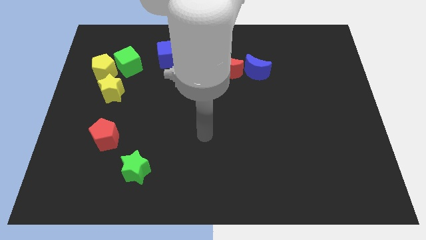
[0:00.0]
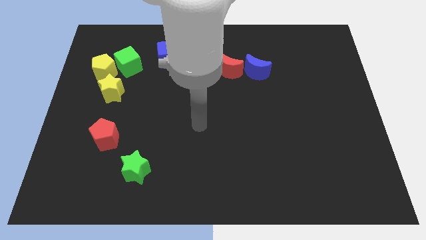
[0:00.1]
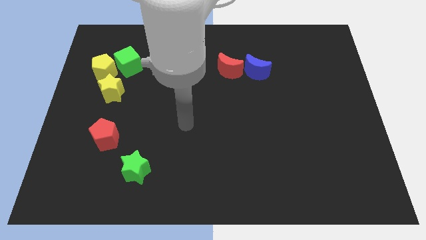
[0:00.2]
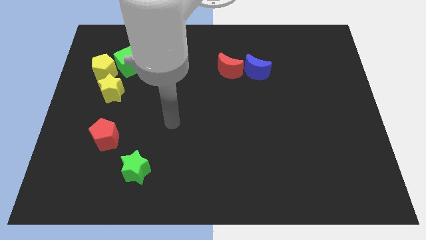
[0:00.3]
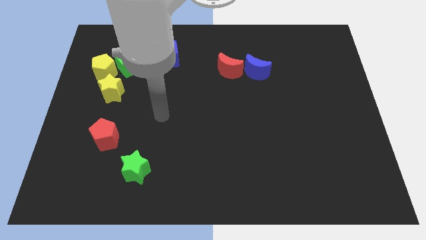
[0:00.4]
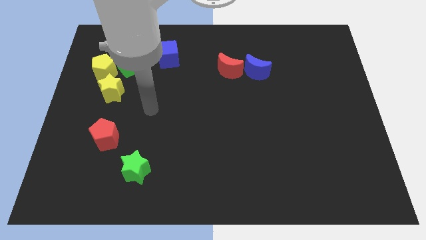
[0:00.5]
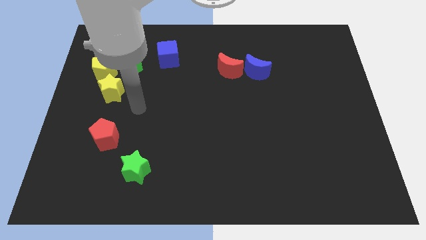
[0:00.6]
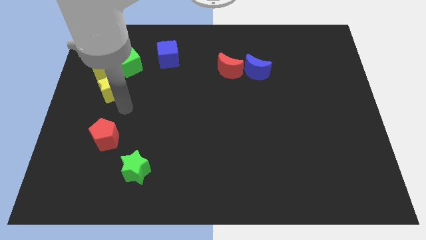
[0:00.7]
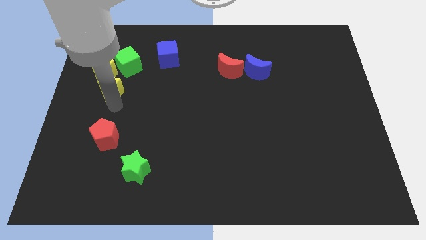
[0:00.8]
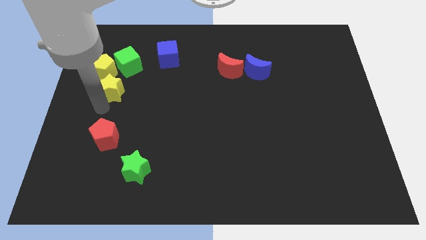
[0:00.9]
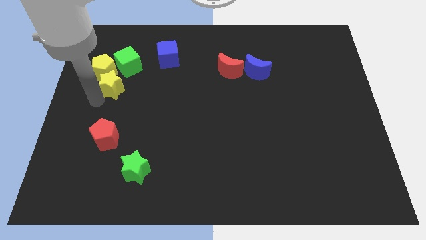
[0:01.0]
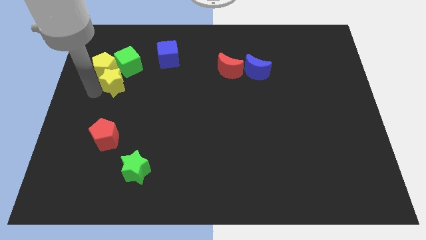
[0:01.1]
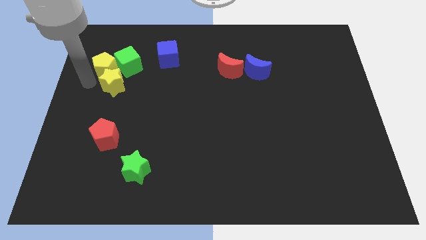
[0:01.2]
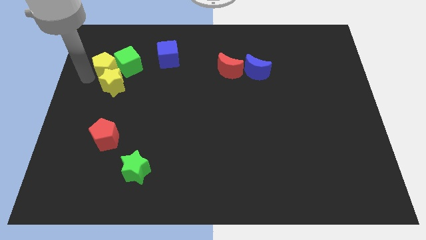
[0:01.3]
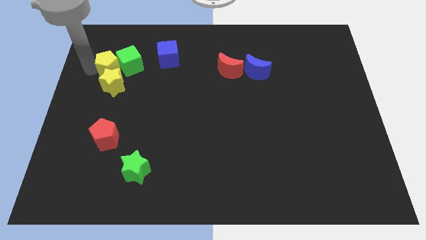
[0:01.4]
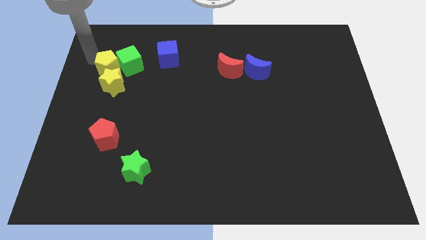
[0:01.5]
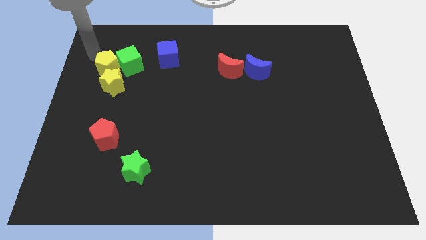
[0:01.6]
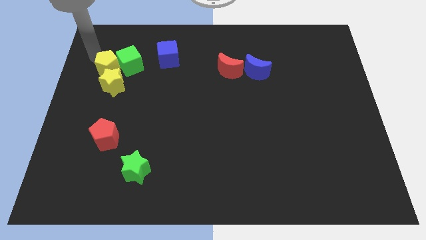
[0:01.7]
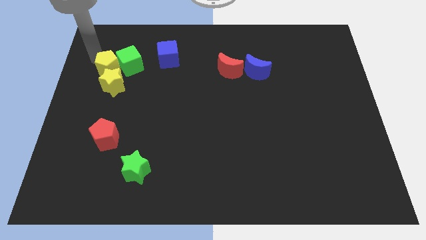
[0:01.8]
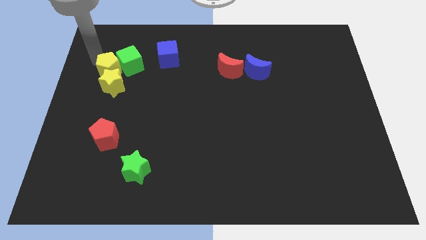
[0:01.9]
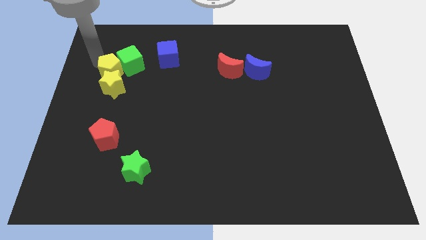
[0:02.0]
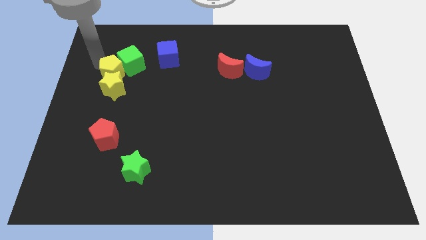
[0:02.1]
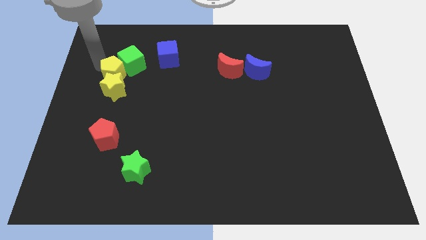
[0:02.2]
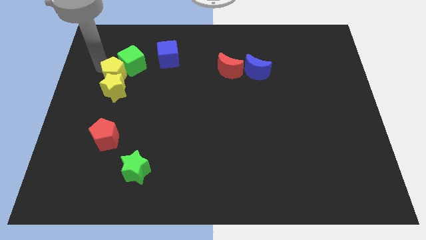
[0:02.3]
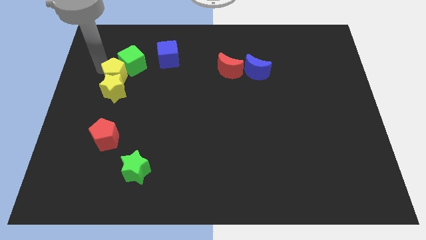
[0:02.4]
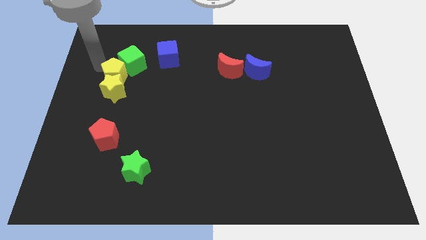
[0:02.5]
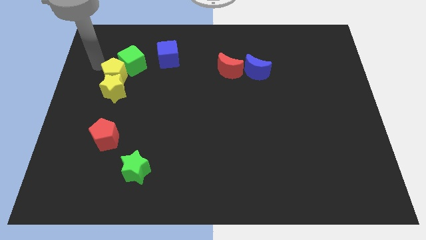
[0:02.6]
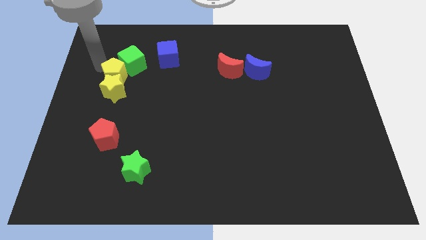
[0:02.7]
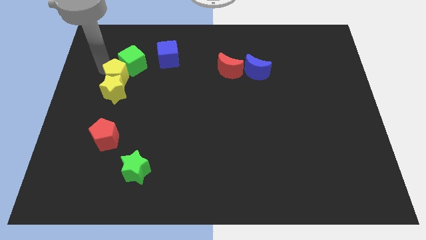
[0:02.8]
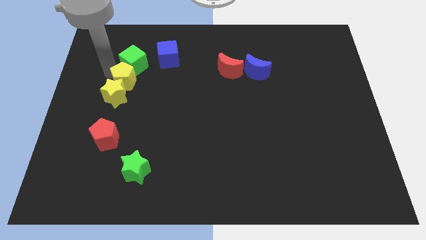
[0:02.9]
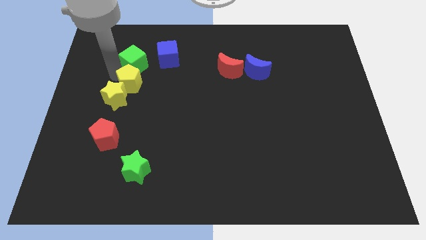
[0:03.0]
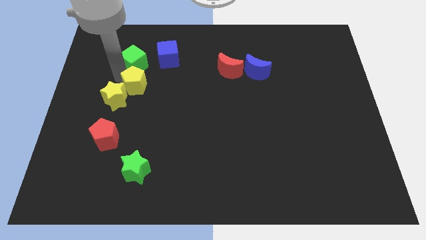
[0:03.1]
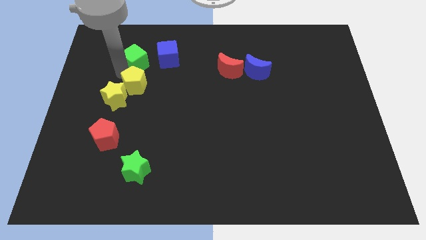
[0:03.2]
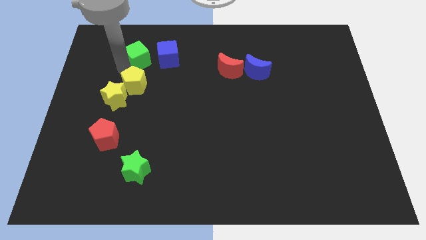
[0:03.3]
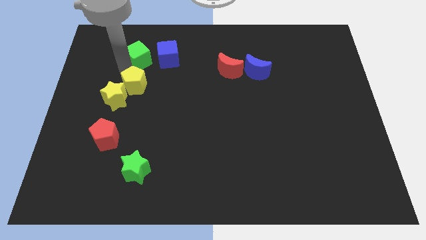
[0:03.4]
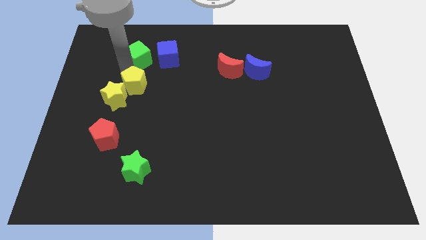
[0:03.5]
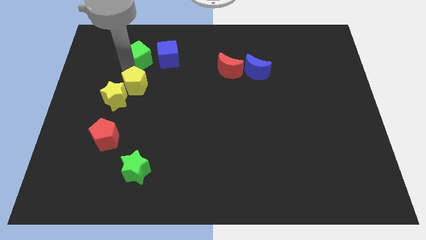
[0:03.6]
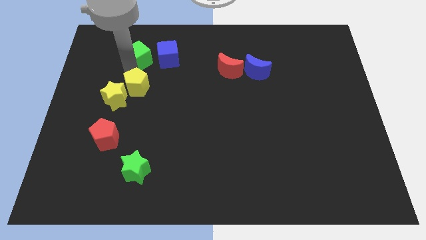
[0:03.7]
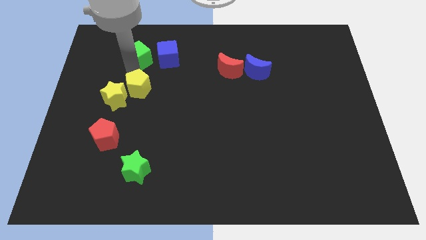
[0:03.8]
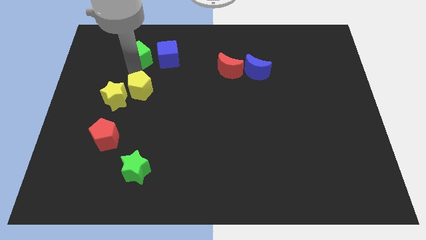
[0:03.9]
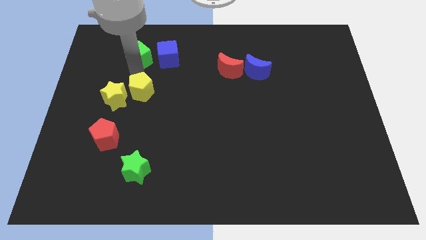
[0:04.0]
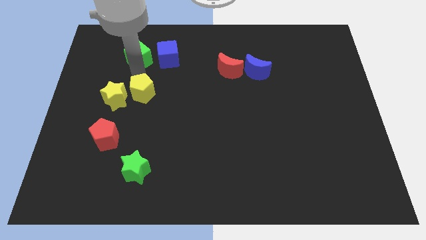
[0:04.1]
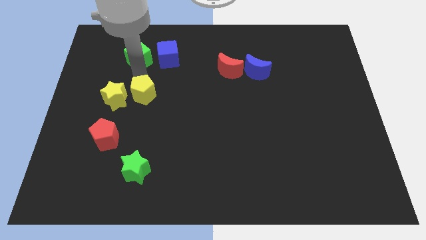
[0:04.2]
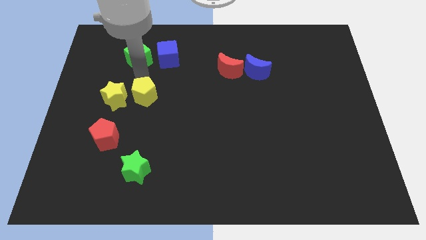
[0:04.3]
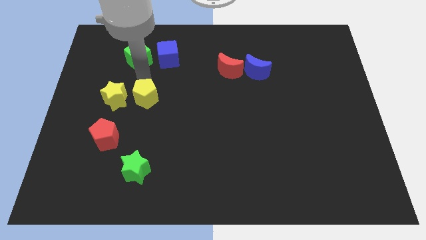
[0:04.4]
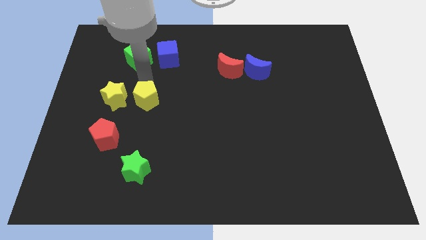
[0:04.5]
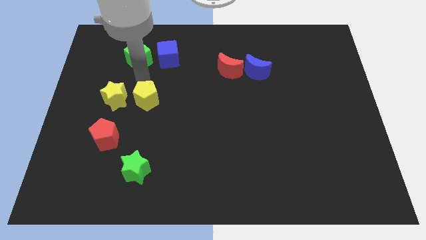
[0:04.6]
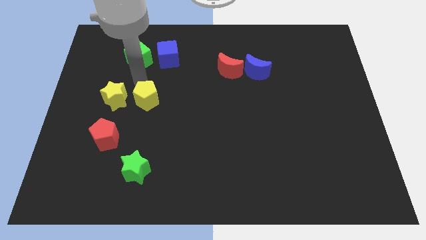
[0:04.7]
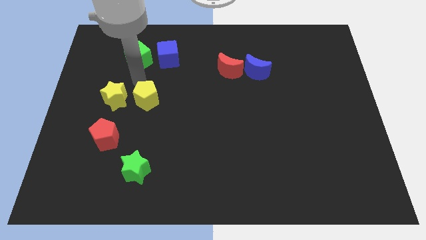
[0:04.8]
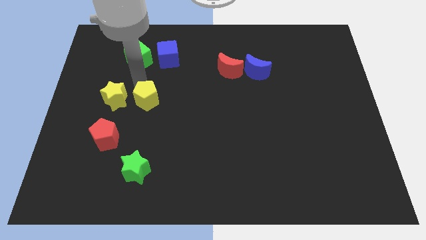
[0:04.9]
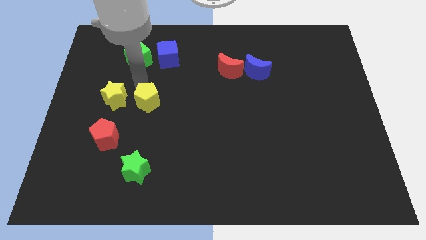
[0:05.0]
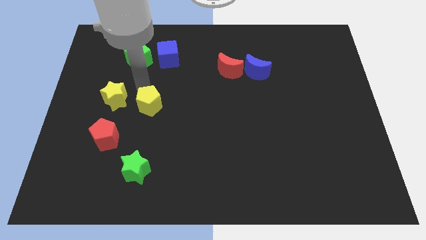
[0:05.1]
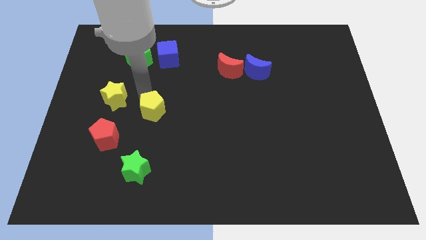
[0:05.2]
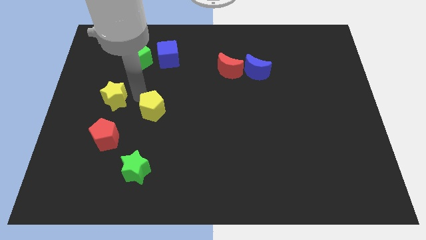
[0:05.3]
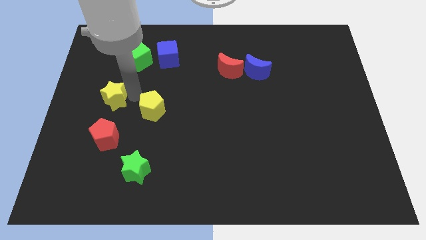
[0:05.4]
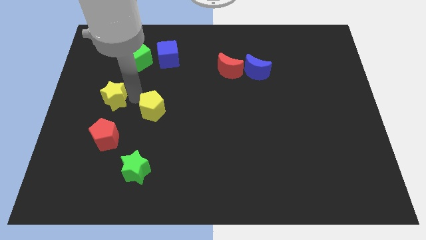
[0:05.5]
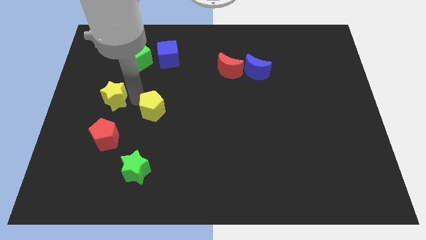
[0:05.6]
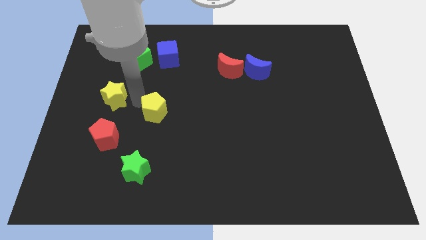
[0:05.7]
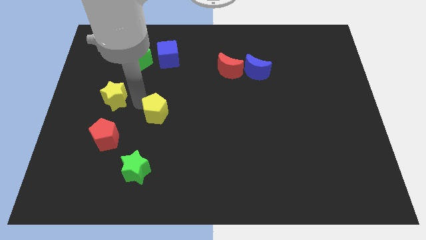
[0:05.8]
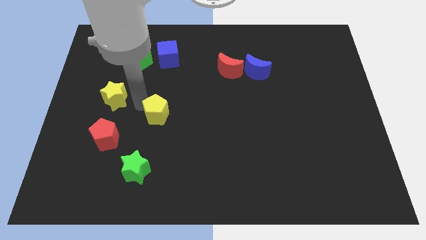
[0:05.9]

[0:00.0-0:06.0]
slide the yellow pentagon down and right diagonally

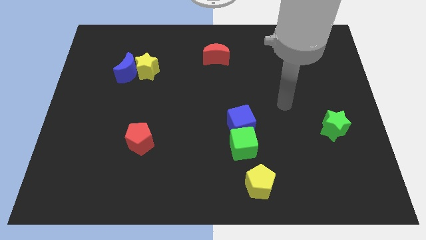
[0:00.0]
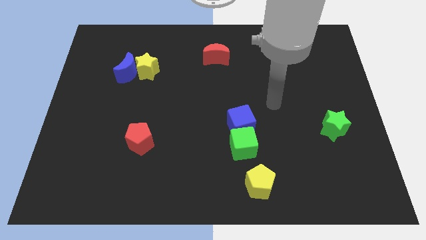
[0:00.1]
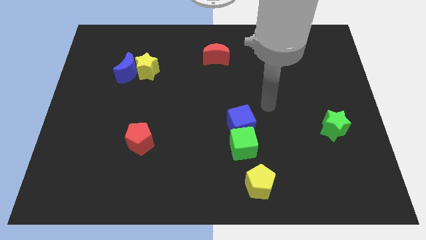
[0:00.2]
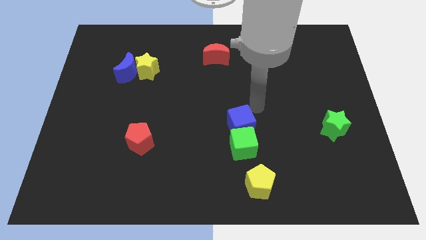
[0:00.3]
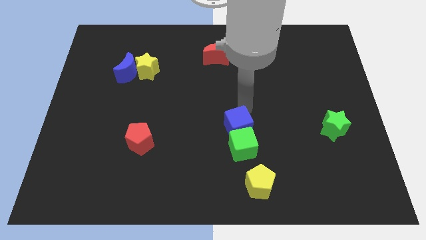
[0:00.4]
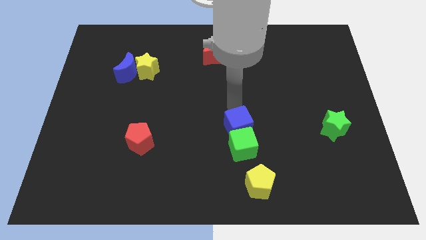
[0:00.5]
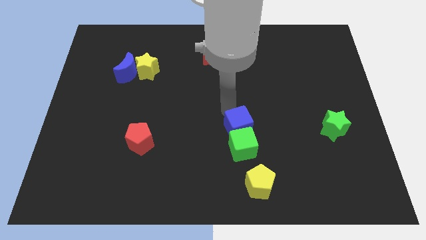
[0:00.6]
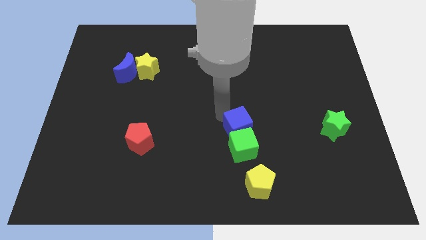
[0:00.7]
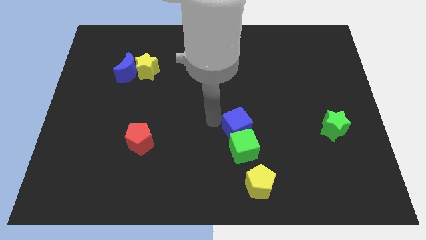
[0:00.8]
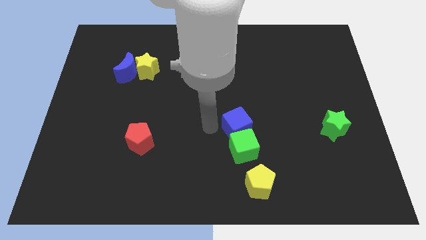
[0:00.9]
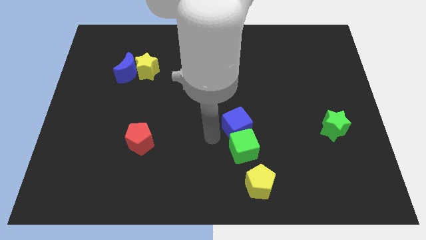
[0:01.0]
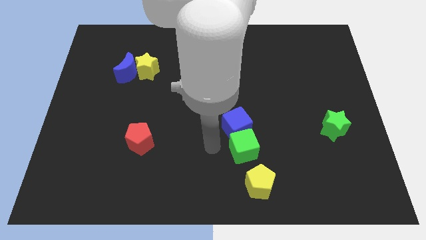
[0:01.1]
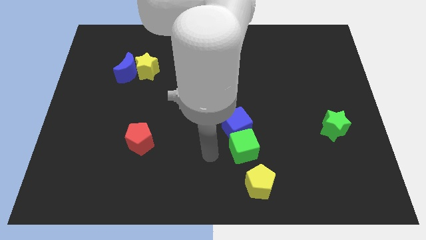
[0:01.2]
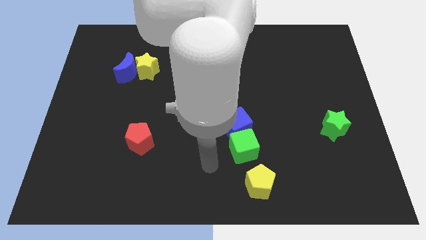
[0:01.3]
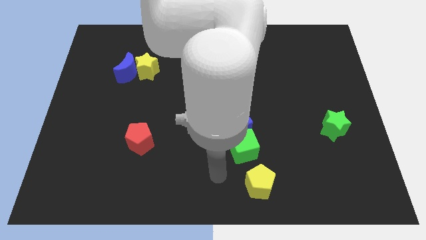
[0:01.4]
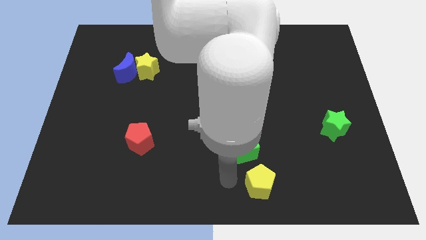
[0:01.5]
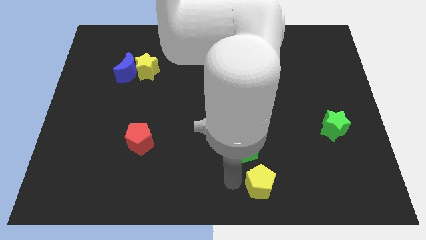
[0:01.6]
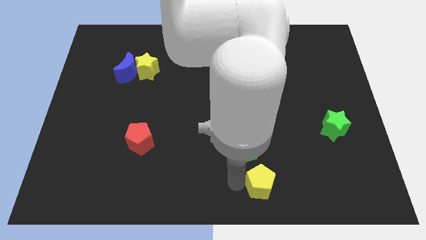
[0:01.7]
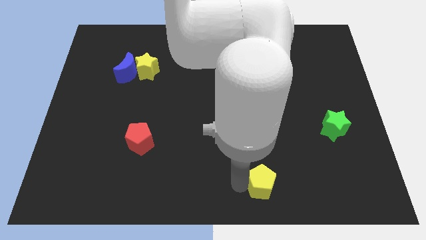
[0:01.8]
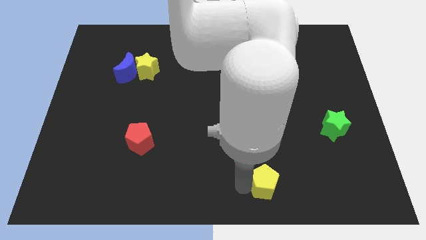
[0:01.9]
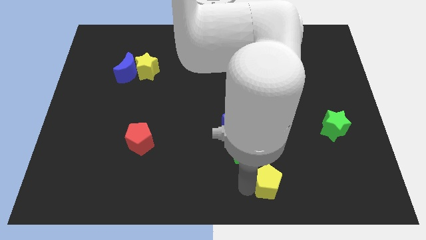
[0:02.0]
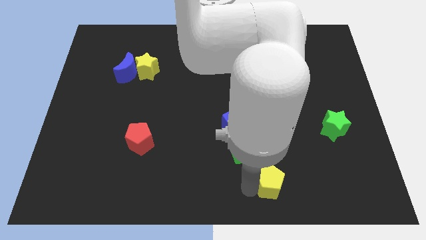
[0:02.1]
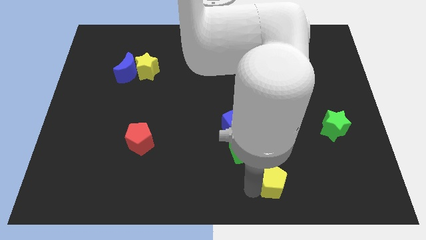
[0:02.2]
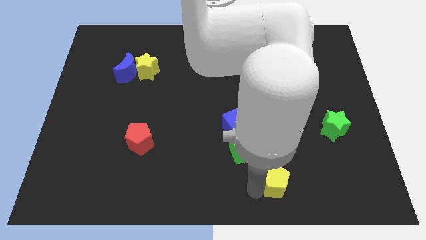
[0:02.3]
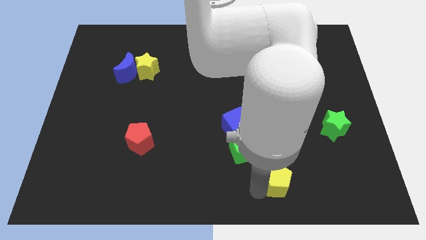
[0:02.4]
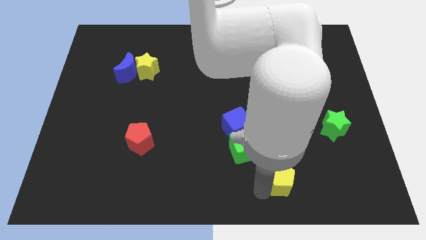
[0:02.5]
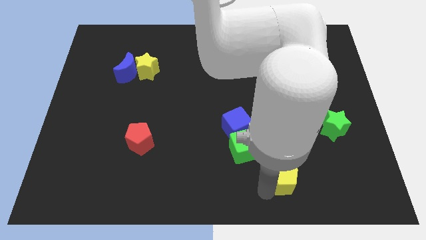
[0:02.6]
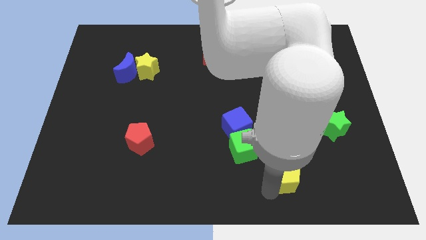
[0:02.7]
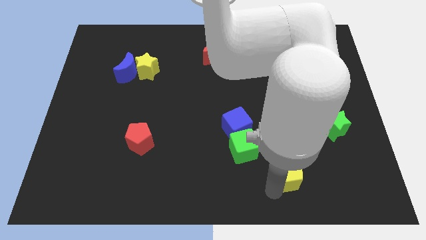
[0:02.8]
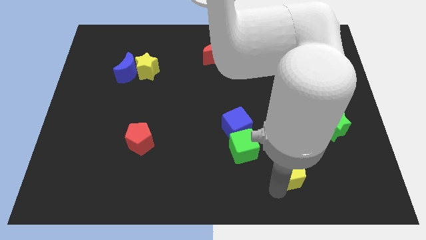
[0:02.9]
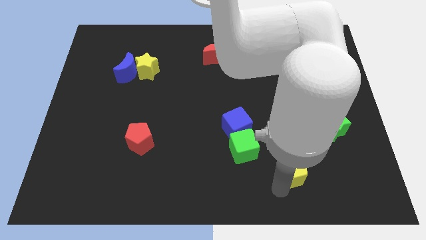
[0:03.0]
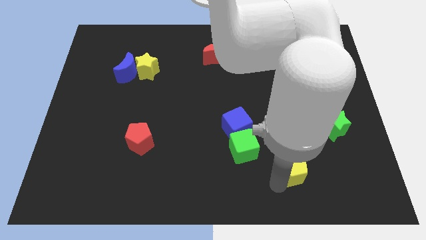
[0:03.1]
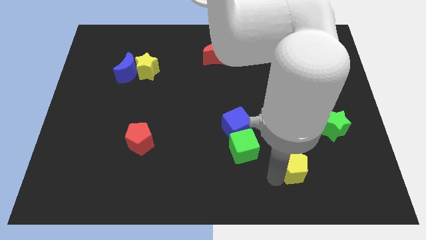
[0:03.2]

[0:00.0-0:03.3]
push the yellow pentagon a little bit right
